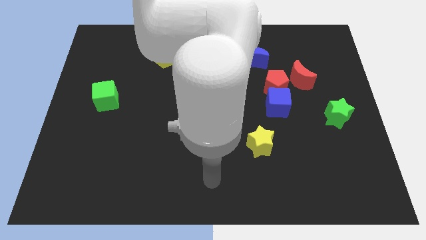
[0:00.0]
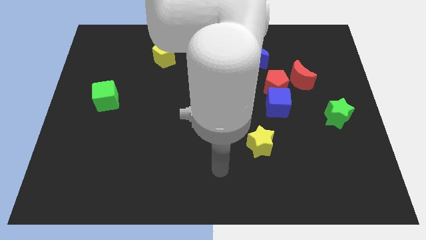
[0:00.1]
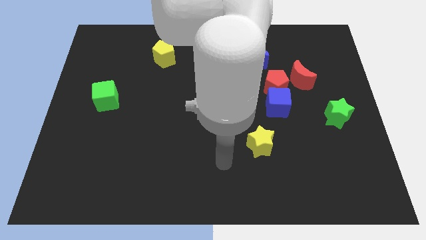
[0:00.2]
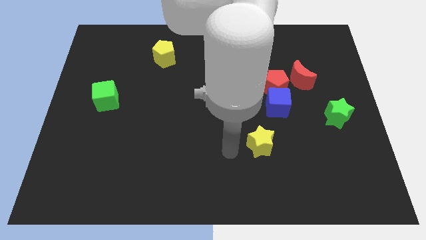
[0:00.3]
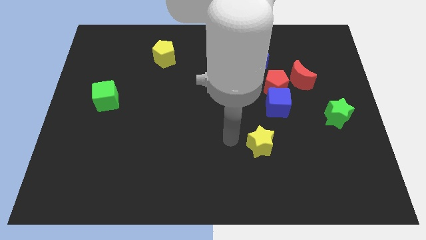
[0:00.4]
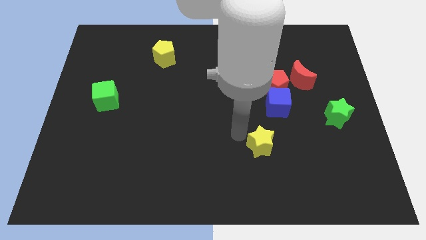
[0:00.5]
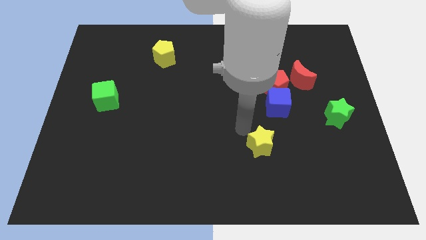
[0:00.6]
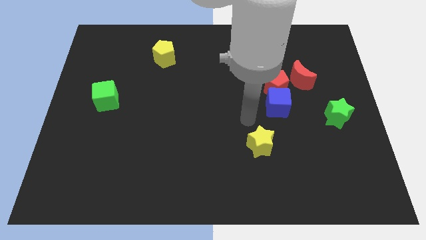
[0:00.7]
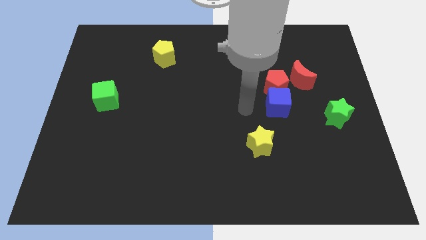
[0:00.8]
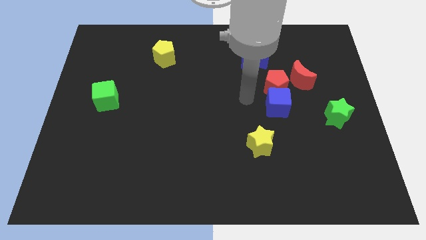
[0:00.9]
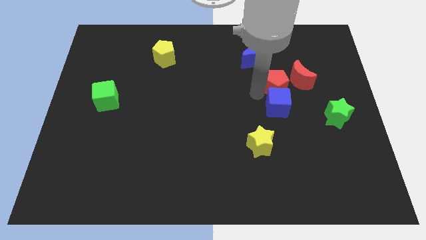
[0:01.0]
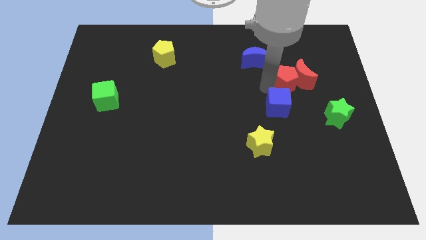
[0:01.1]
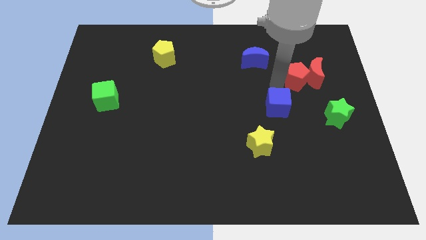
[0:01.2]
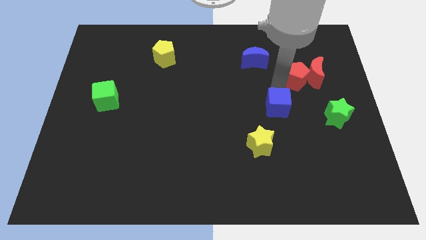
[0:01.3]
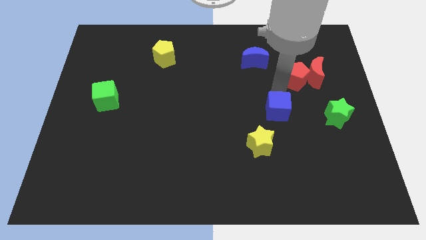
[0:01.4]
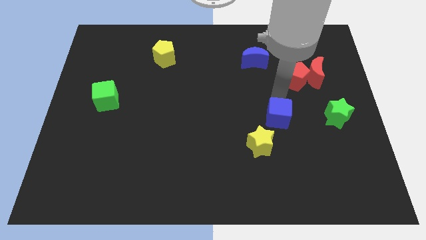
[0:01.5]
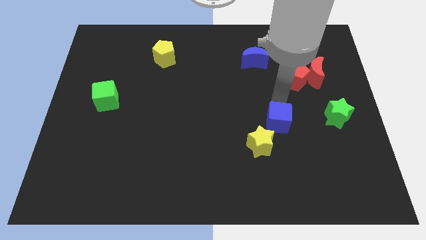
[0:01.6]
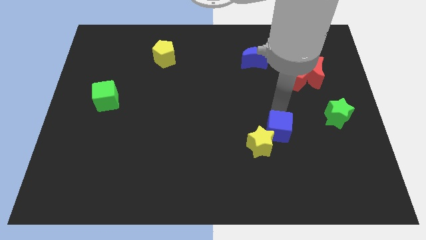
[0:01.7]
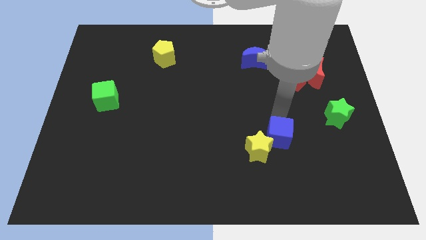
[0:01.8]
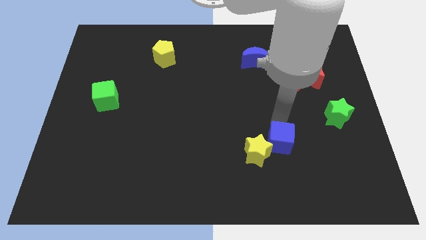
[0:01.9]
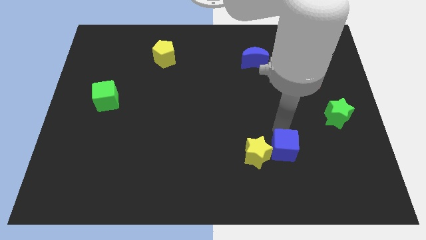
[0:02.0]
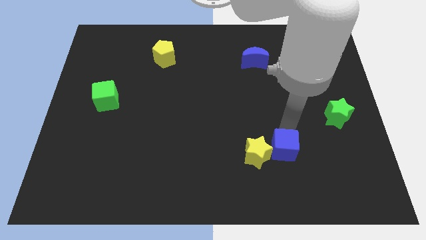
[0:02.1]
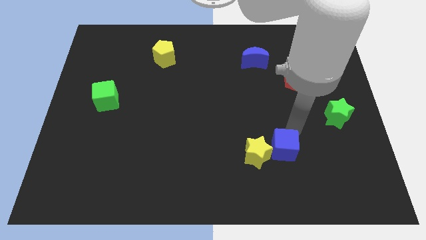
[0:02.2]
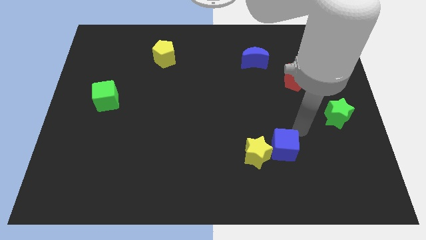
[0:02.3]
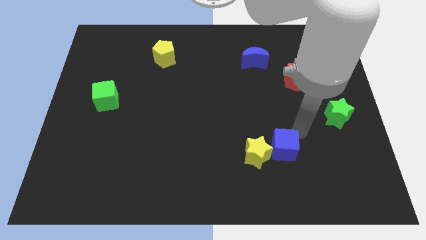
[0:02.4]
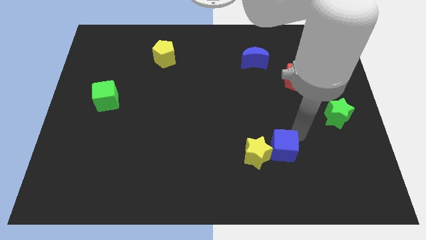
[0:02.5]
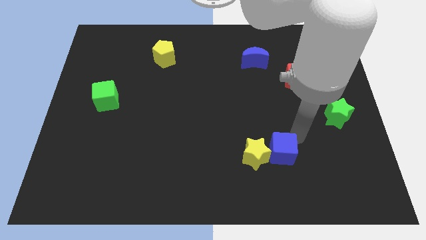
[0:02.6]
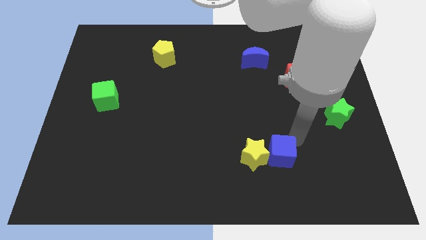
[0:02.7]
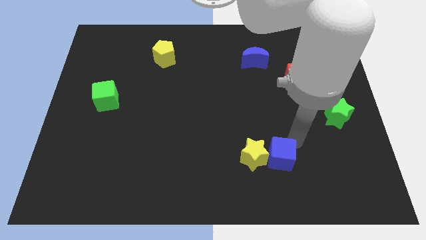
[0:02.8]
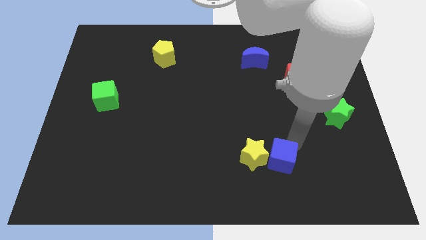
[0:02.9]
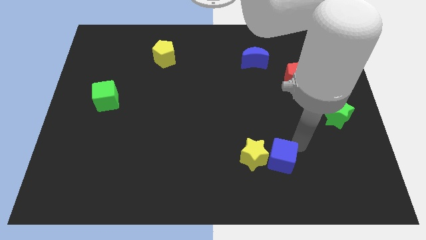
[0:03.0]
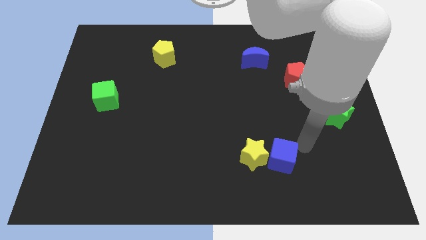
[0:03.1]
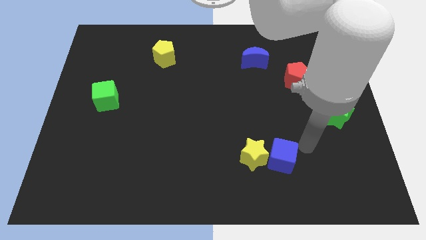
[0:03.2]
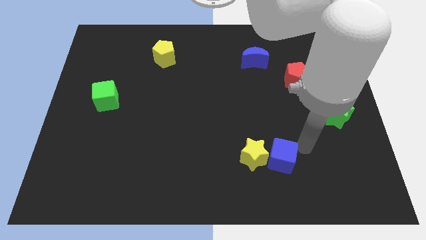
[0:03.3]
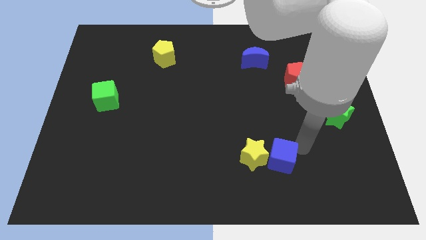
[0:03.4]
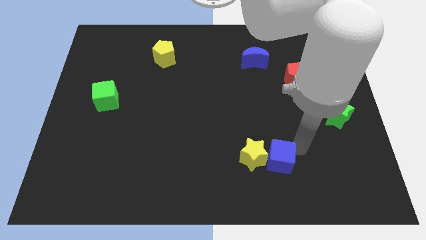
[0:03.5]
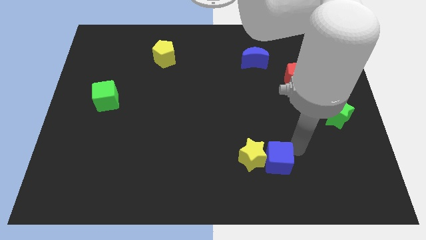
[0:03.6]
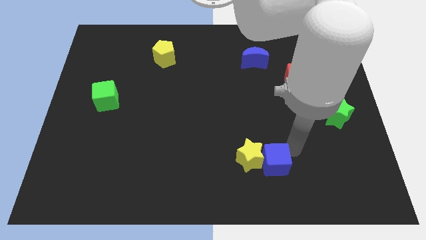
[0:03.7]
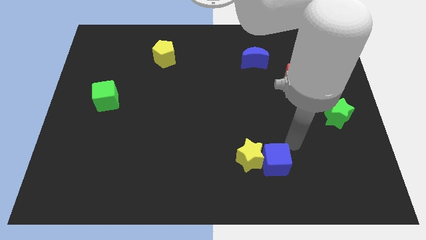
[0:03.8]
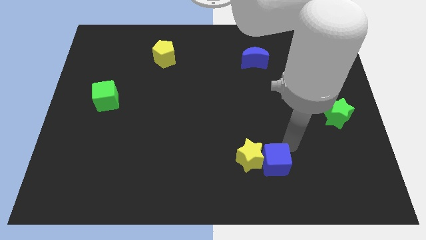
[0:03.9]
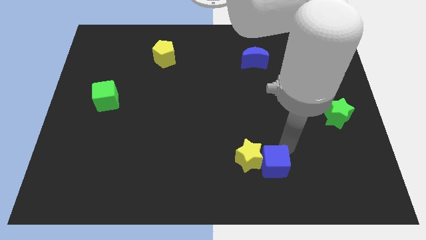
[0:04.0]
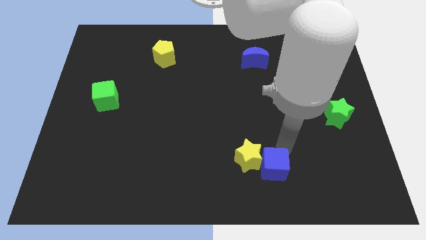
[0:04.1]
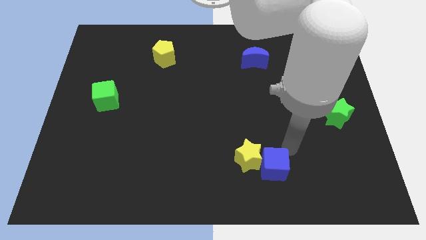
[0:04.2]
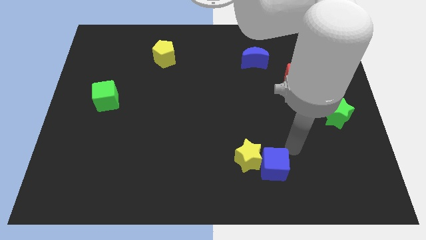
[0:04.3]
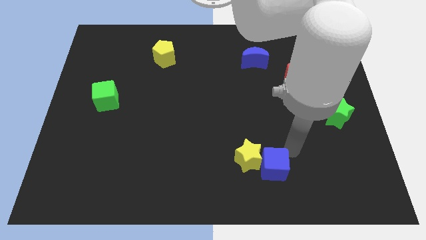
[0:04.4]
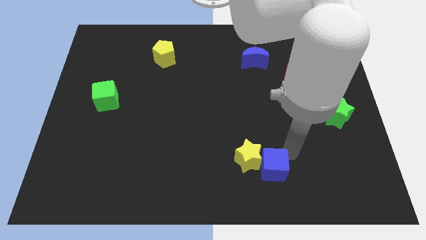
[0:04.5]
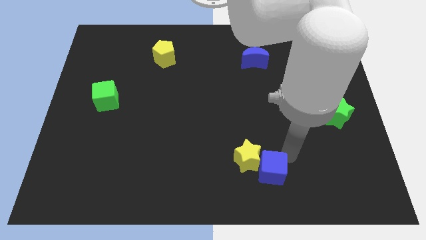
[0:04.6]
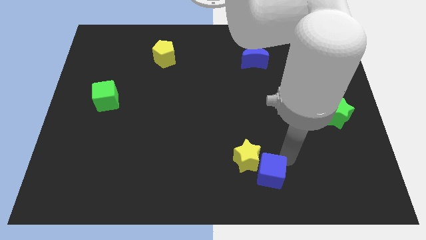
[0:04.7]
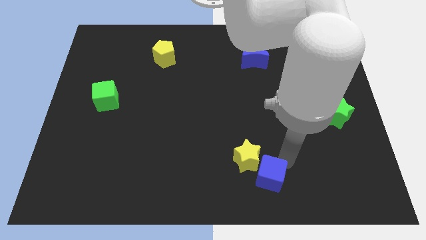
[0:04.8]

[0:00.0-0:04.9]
move the blue cube to the bottom side

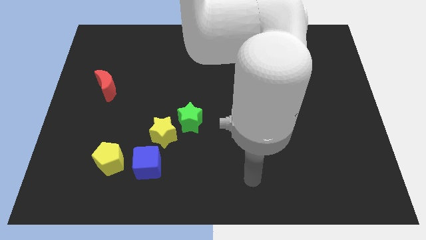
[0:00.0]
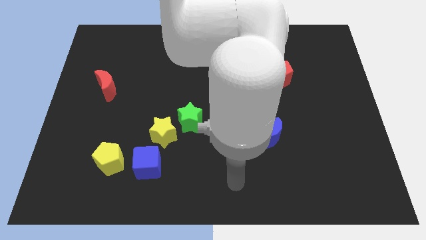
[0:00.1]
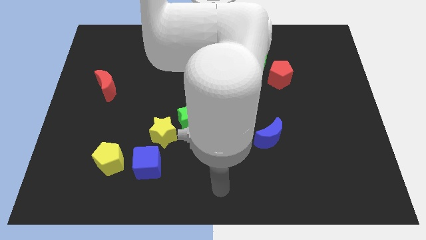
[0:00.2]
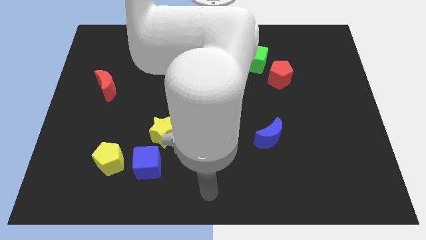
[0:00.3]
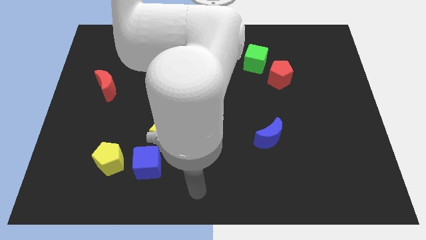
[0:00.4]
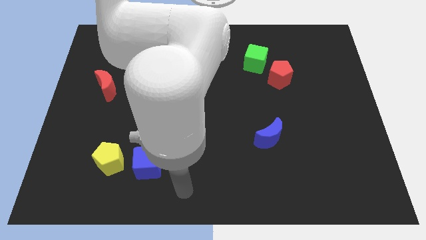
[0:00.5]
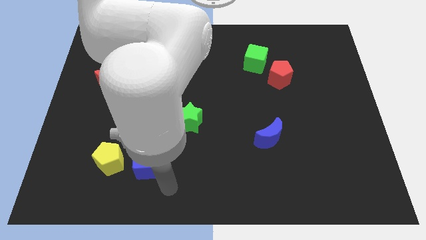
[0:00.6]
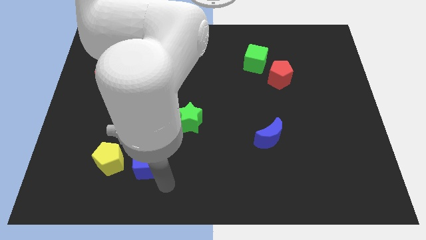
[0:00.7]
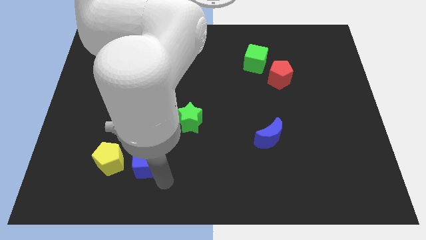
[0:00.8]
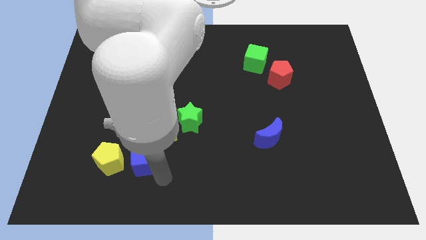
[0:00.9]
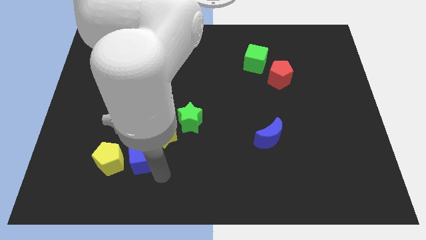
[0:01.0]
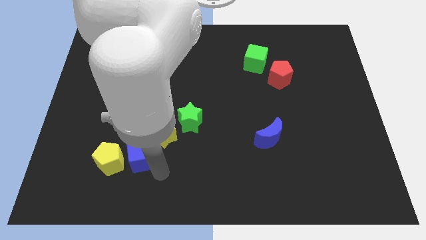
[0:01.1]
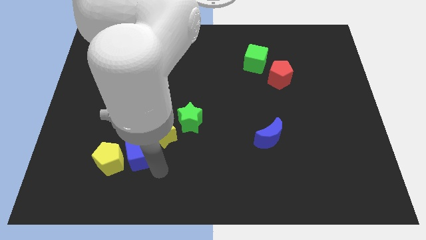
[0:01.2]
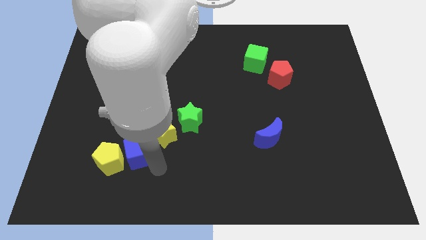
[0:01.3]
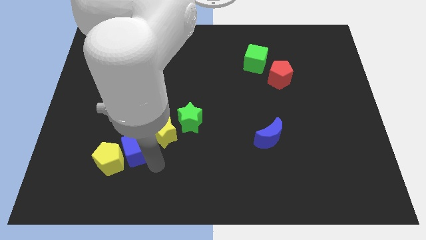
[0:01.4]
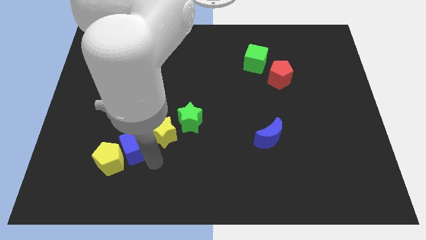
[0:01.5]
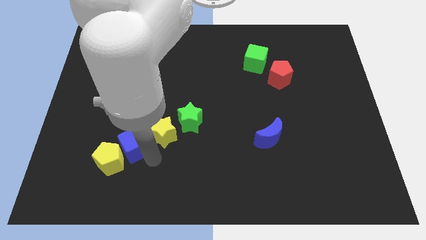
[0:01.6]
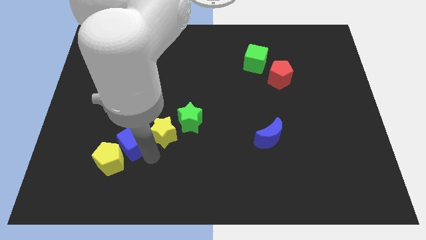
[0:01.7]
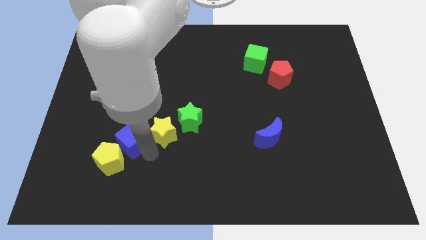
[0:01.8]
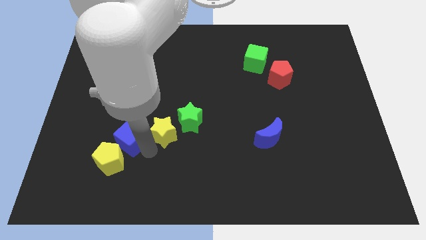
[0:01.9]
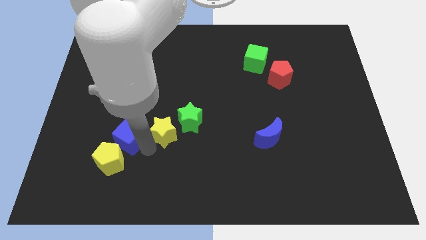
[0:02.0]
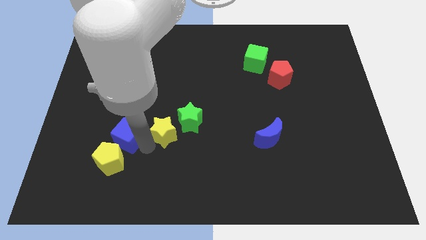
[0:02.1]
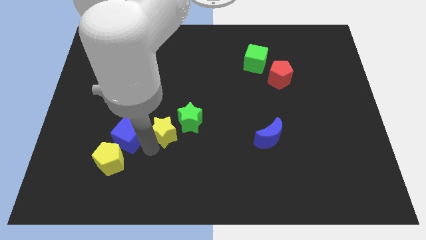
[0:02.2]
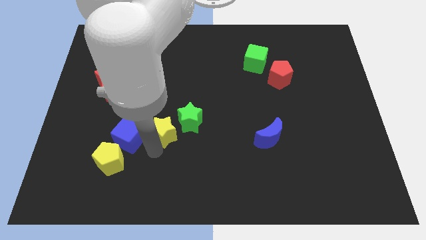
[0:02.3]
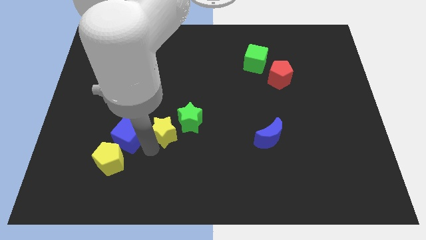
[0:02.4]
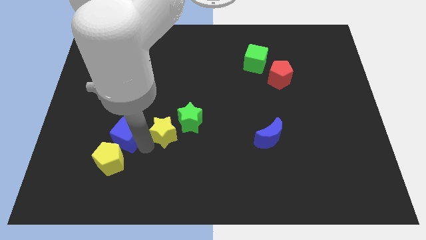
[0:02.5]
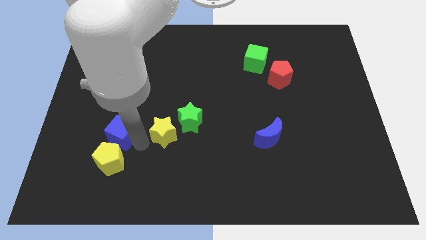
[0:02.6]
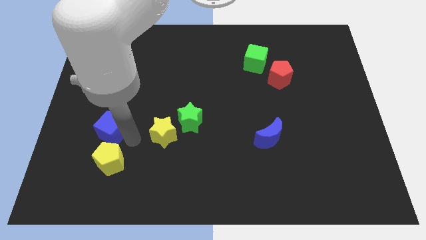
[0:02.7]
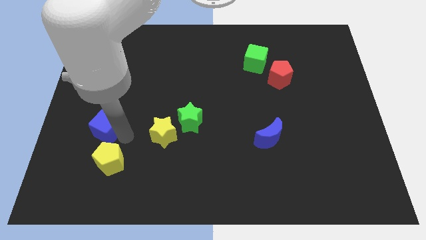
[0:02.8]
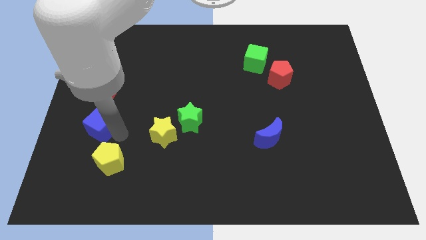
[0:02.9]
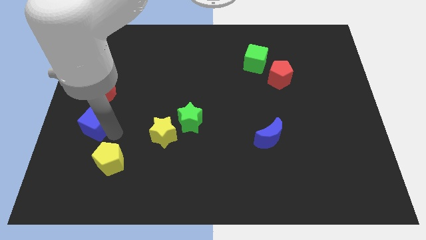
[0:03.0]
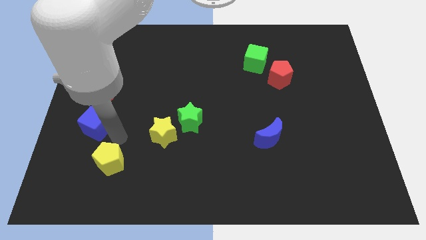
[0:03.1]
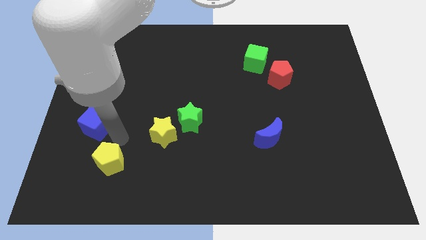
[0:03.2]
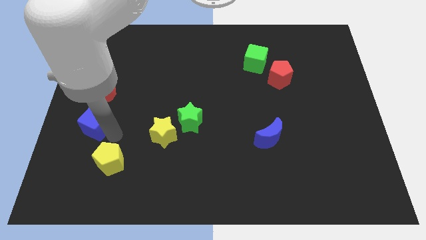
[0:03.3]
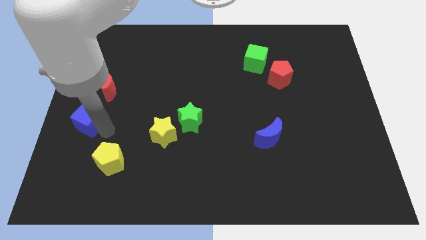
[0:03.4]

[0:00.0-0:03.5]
push the blue cube to the left side of the board
